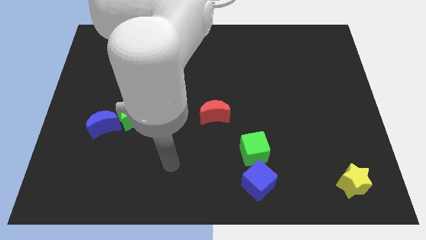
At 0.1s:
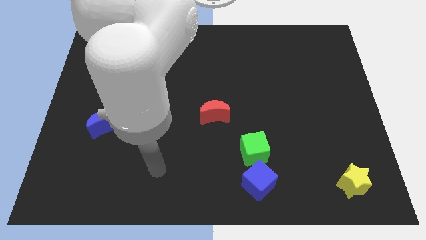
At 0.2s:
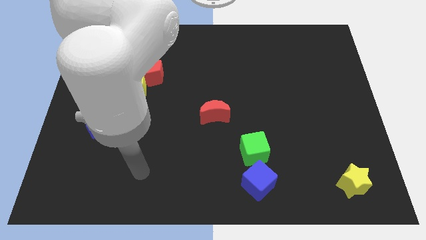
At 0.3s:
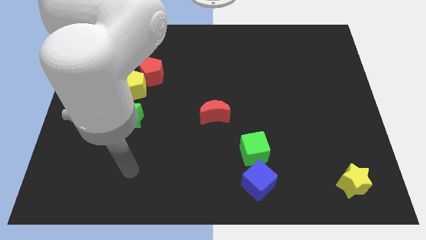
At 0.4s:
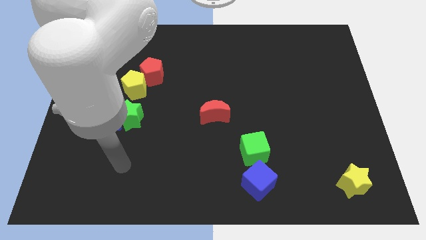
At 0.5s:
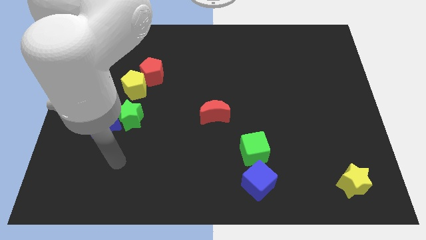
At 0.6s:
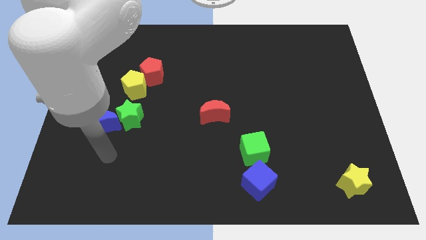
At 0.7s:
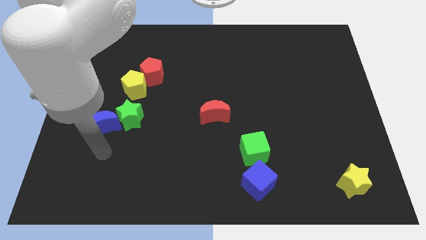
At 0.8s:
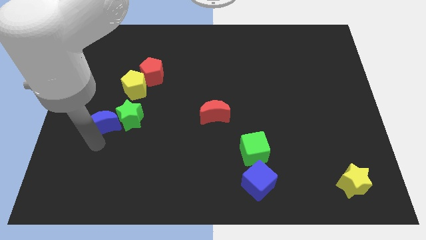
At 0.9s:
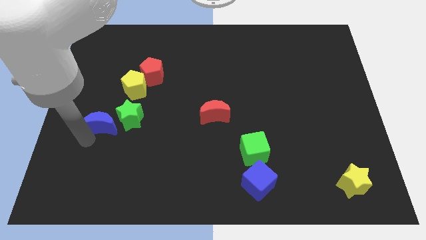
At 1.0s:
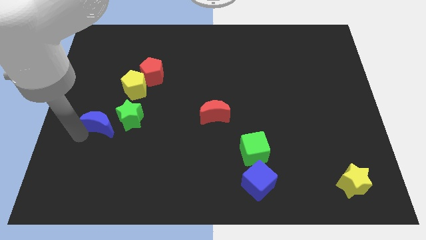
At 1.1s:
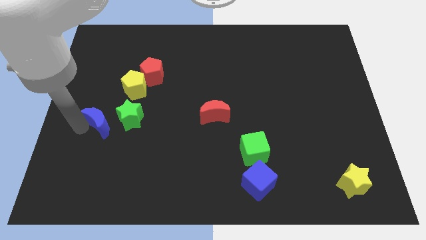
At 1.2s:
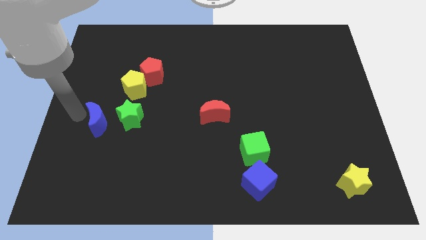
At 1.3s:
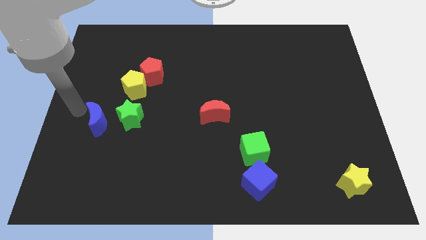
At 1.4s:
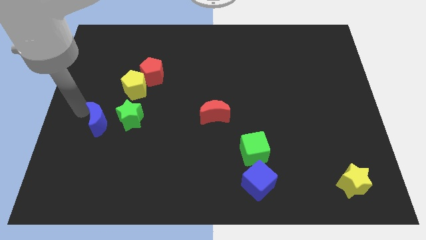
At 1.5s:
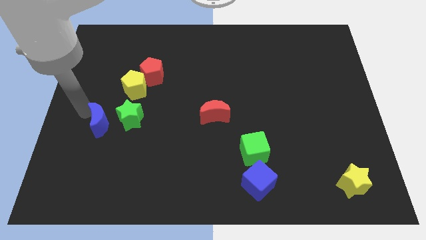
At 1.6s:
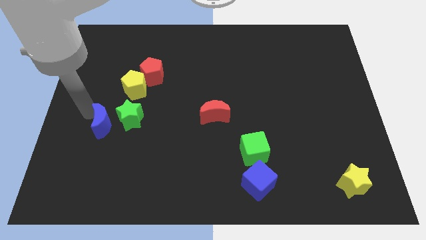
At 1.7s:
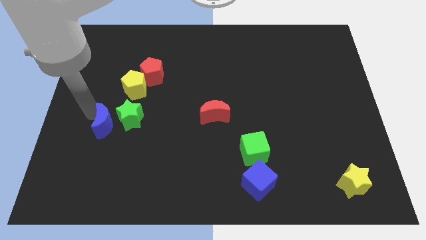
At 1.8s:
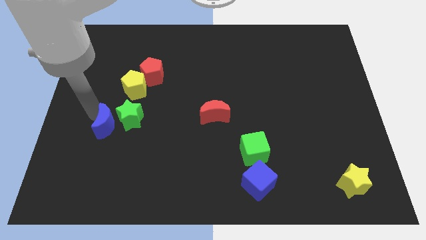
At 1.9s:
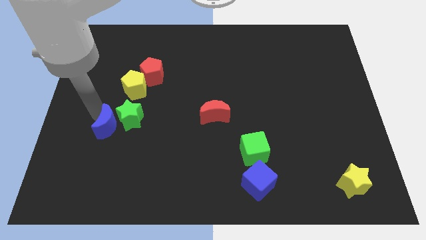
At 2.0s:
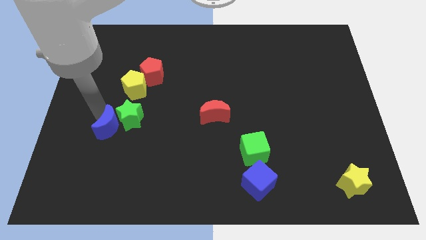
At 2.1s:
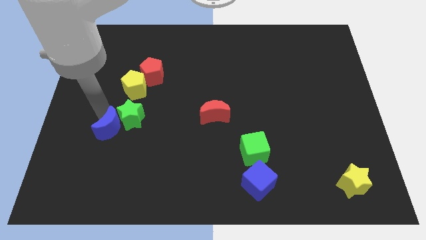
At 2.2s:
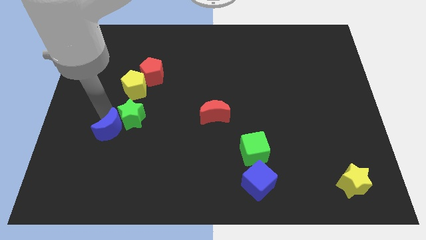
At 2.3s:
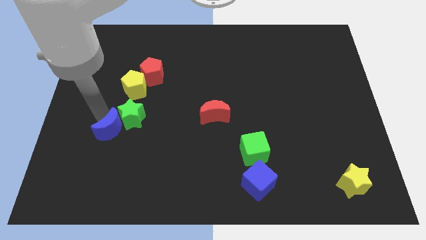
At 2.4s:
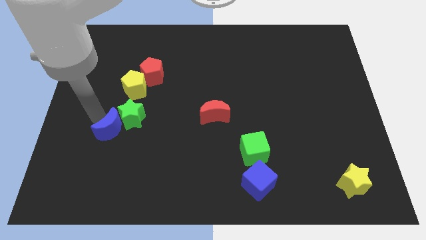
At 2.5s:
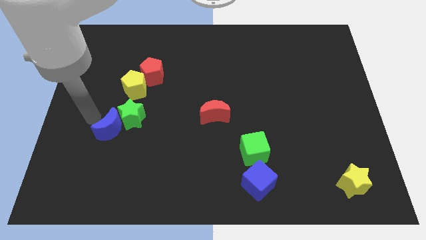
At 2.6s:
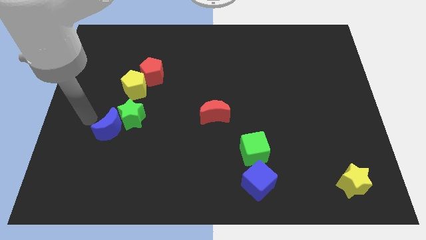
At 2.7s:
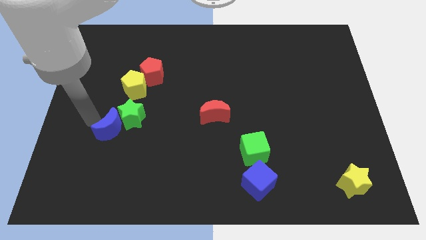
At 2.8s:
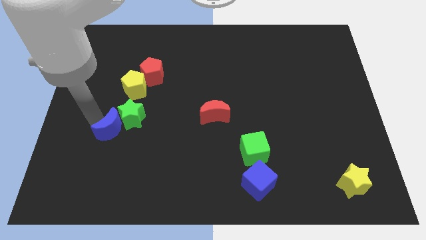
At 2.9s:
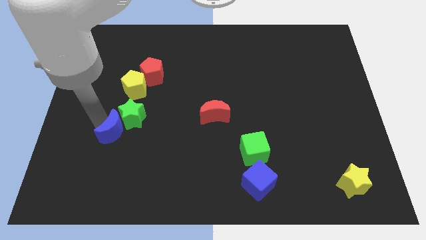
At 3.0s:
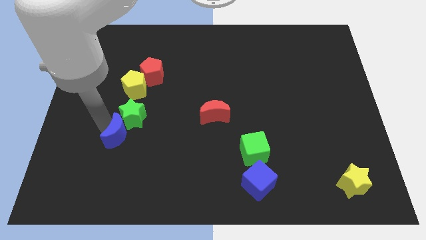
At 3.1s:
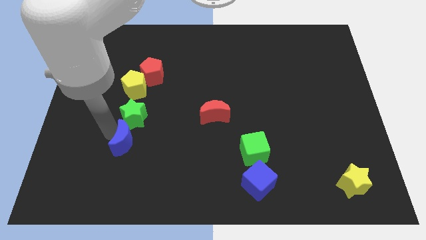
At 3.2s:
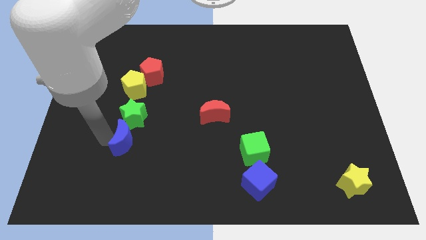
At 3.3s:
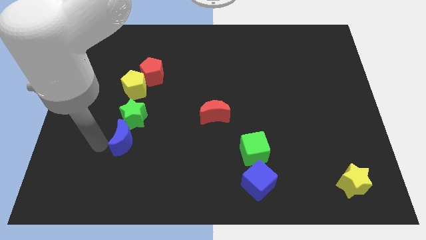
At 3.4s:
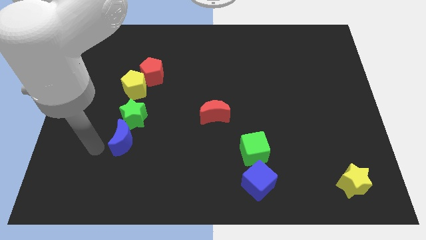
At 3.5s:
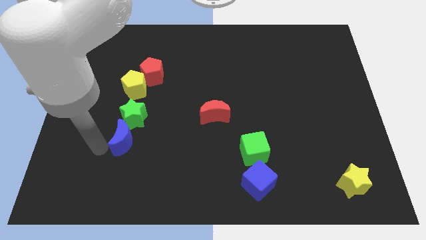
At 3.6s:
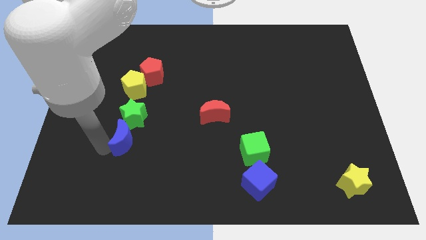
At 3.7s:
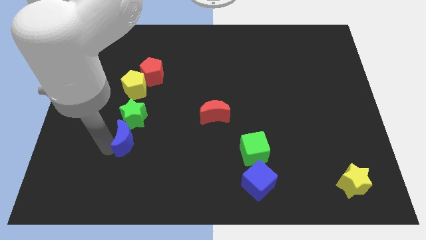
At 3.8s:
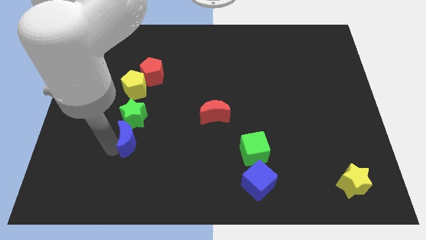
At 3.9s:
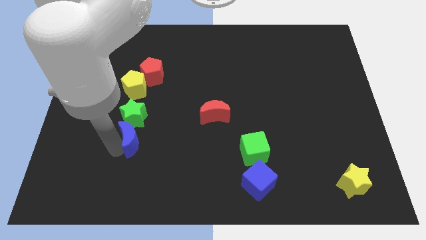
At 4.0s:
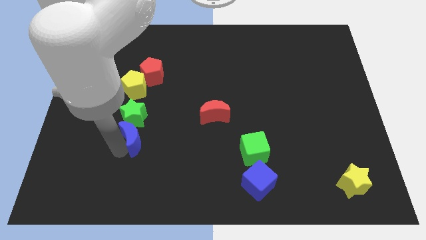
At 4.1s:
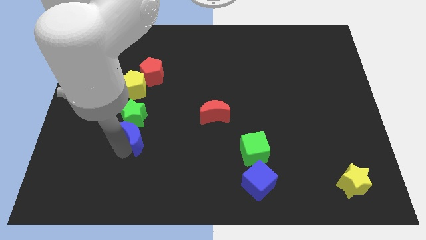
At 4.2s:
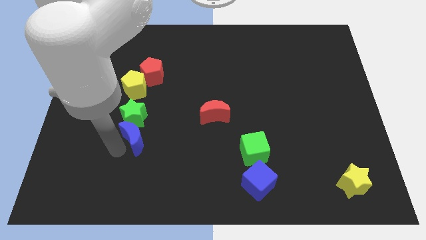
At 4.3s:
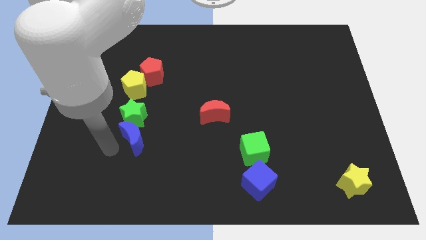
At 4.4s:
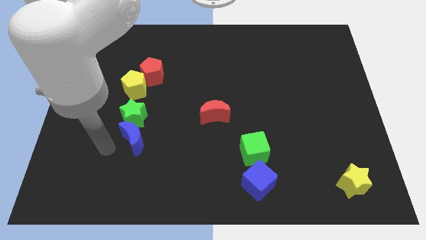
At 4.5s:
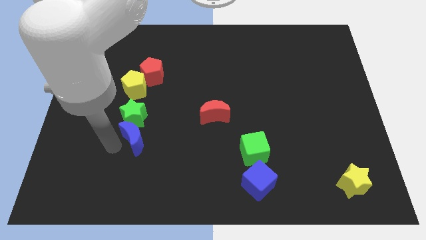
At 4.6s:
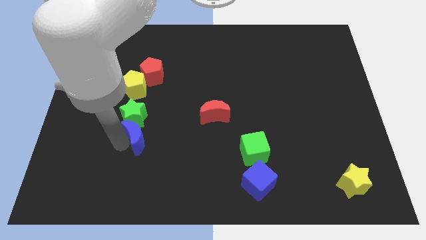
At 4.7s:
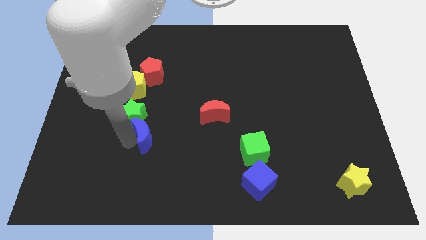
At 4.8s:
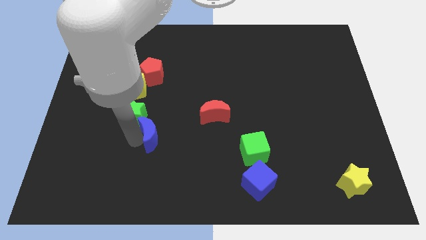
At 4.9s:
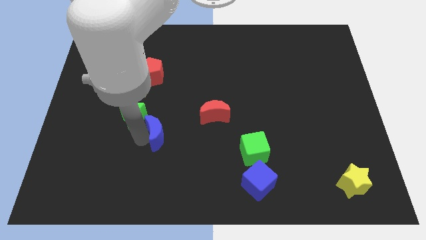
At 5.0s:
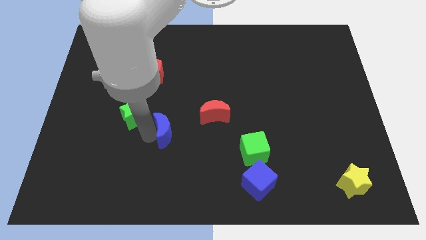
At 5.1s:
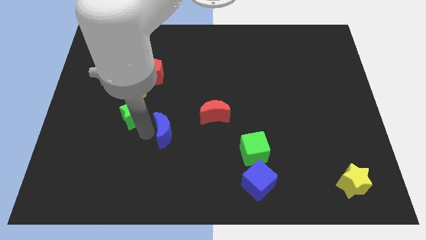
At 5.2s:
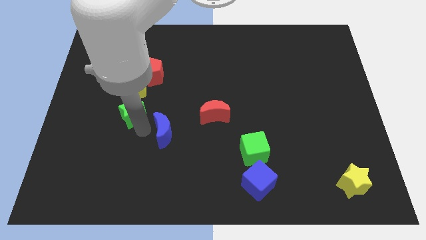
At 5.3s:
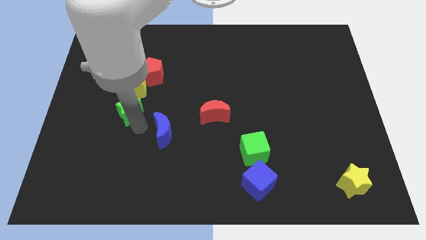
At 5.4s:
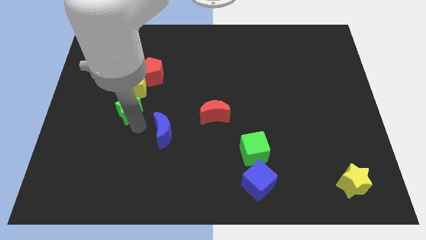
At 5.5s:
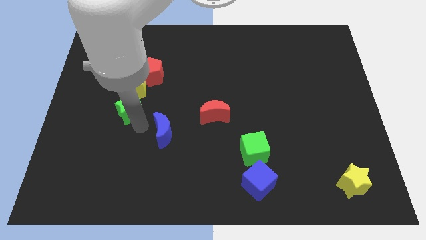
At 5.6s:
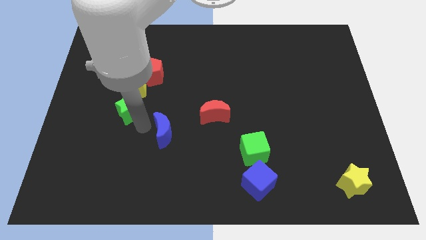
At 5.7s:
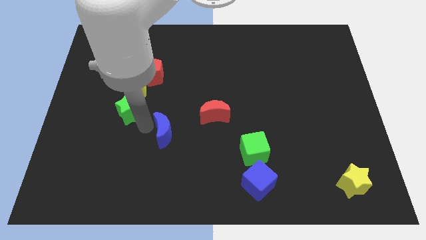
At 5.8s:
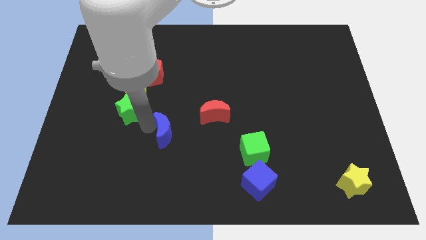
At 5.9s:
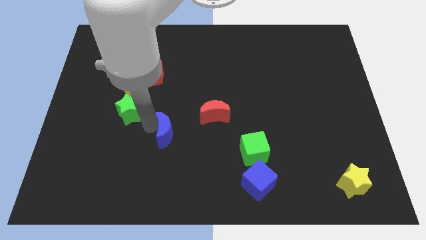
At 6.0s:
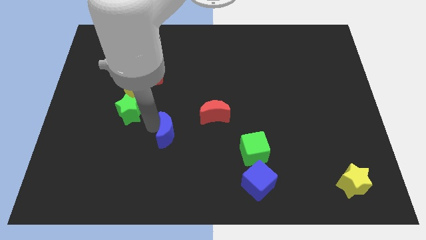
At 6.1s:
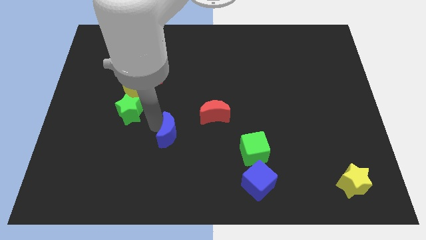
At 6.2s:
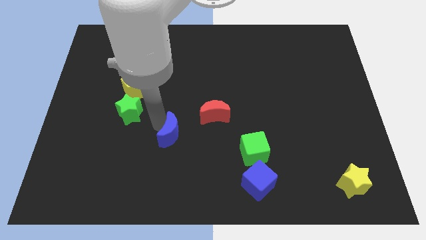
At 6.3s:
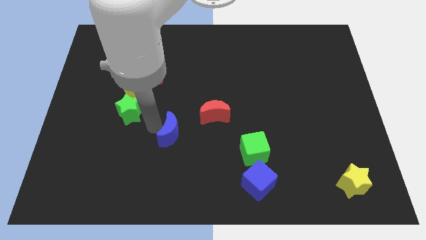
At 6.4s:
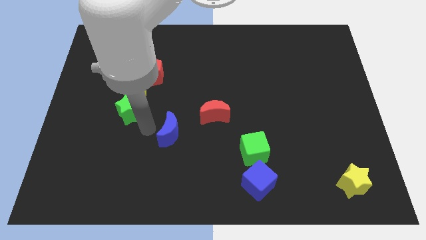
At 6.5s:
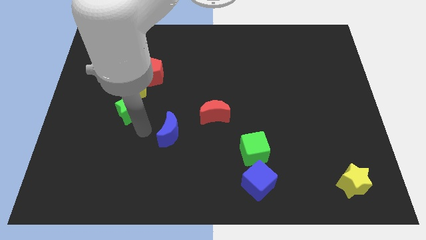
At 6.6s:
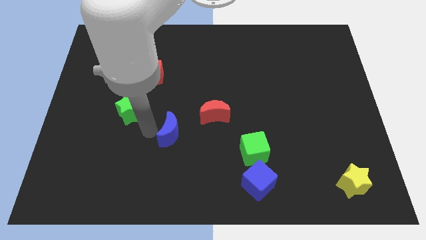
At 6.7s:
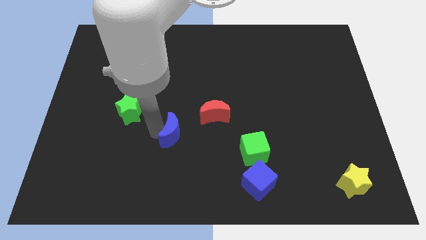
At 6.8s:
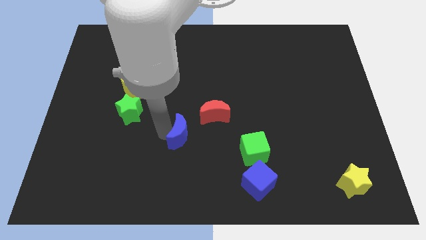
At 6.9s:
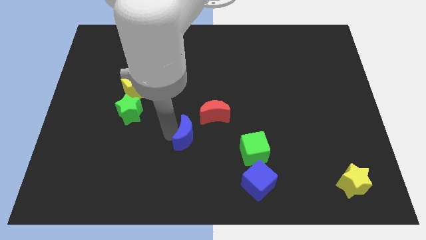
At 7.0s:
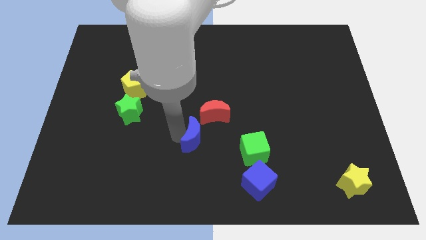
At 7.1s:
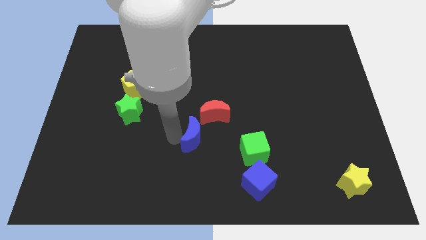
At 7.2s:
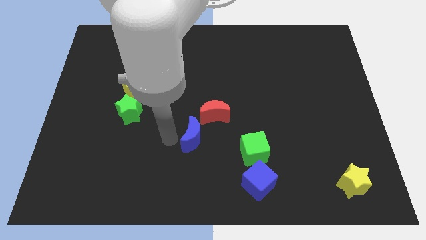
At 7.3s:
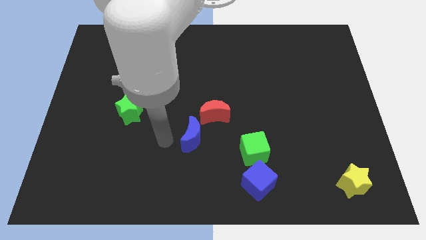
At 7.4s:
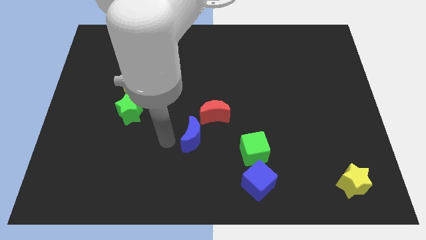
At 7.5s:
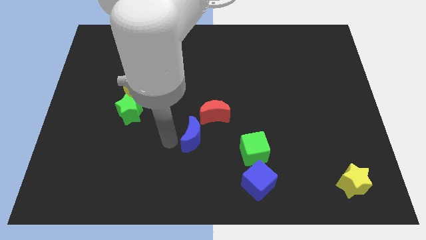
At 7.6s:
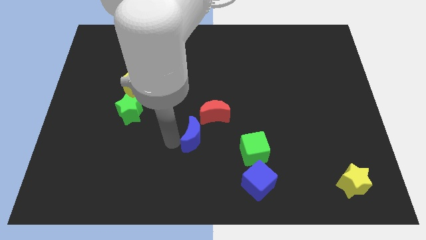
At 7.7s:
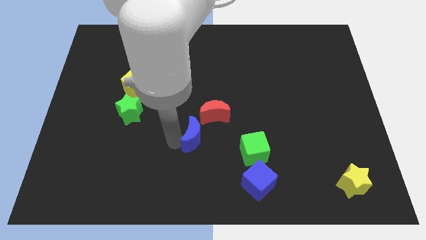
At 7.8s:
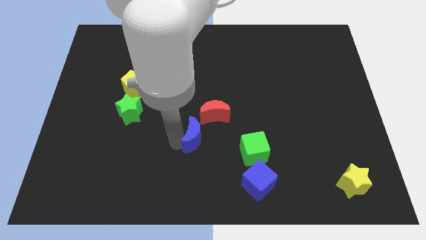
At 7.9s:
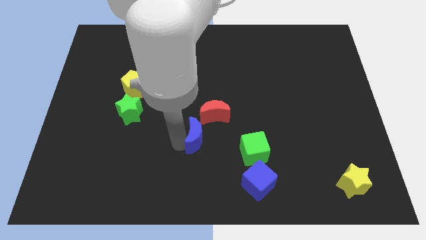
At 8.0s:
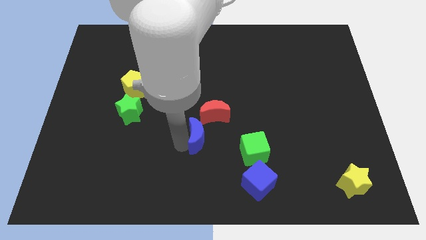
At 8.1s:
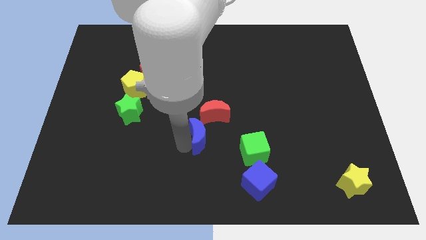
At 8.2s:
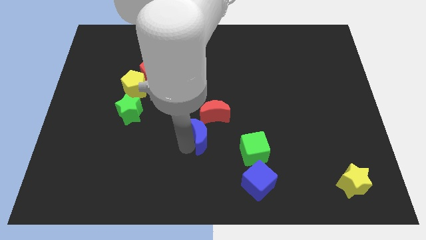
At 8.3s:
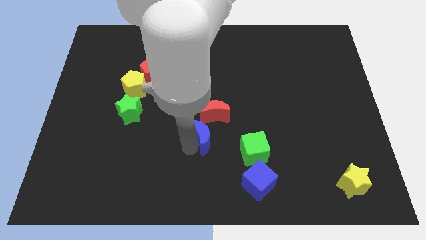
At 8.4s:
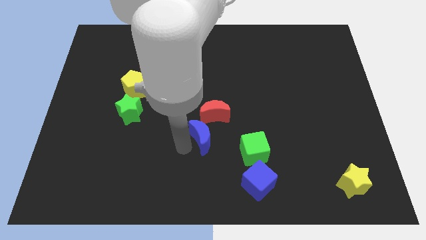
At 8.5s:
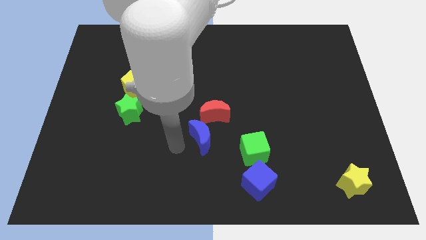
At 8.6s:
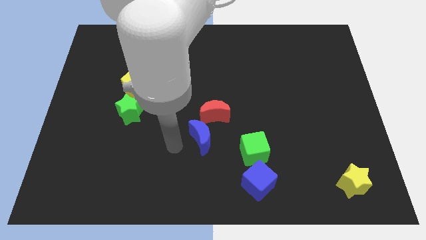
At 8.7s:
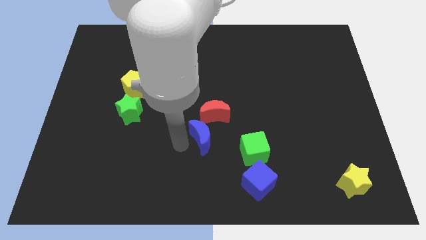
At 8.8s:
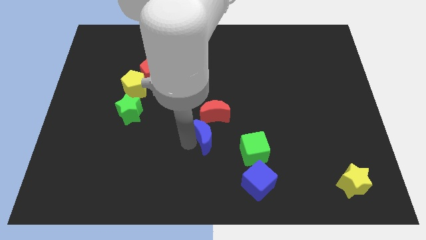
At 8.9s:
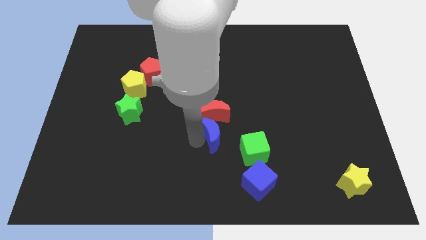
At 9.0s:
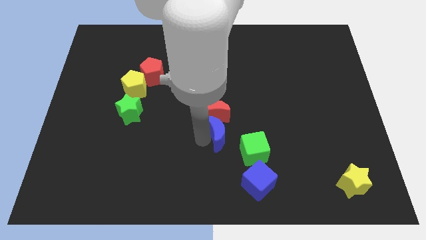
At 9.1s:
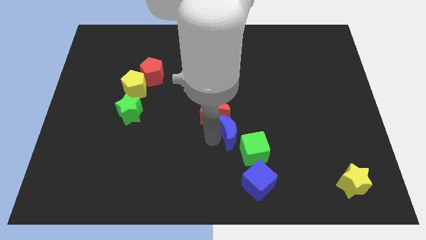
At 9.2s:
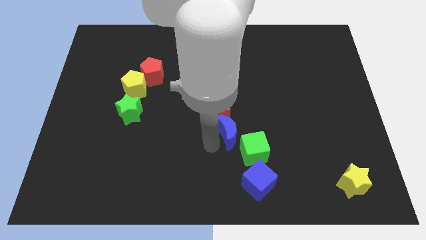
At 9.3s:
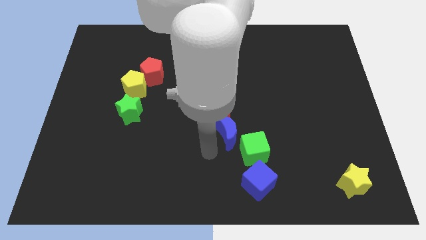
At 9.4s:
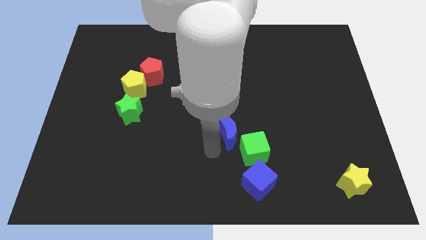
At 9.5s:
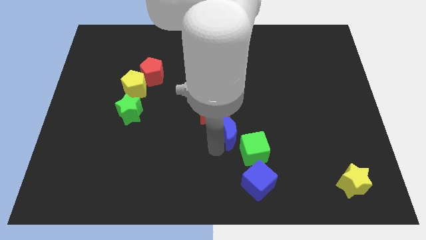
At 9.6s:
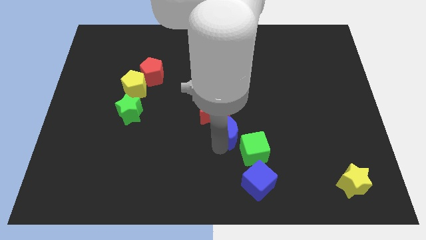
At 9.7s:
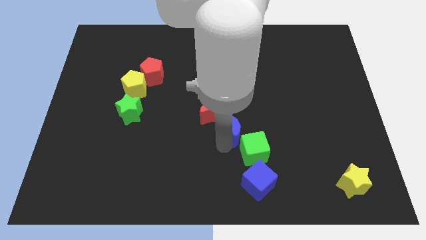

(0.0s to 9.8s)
put the blue moon to the top side of the green cube
